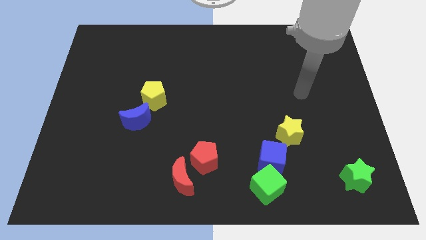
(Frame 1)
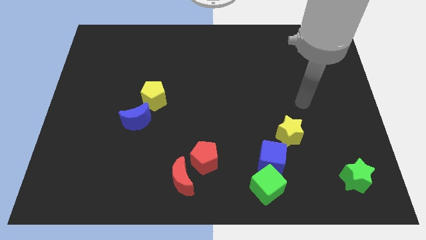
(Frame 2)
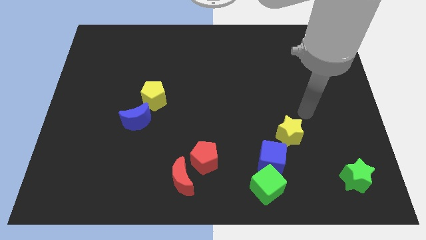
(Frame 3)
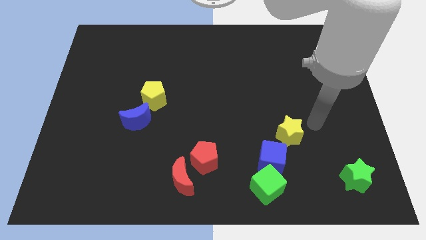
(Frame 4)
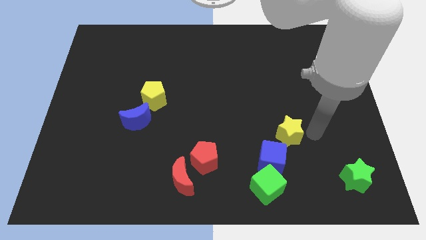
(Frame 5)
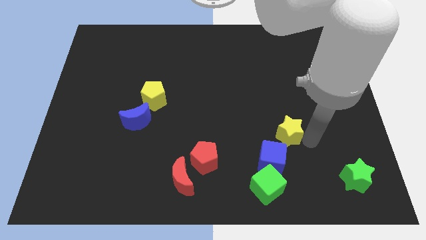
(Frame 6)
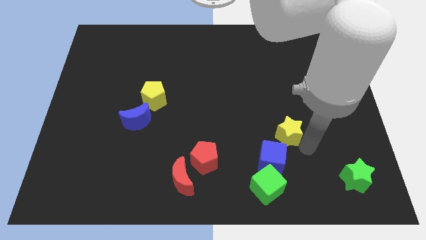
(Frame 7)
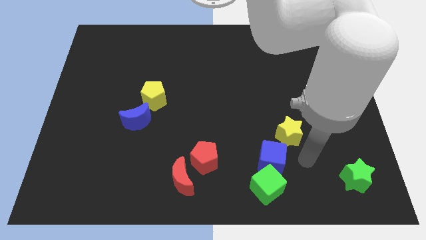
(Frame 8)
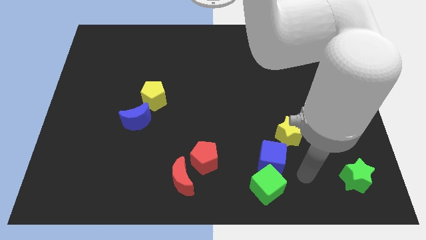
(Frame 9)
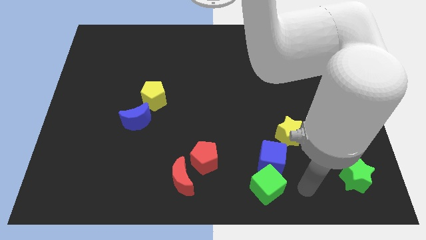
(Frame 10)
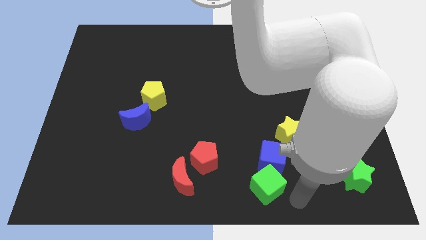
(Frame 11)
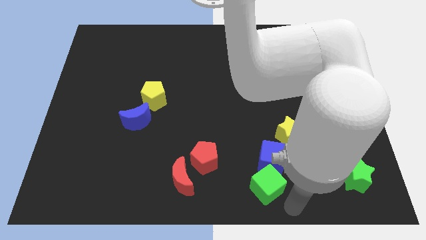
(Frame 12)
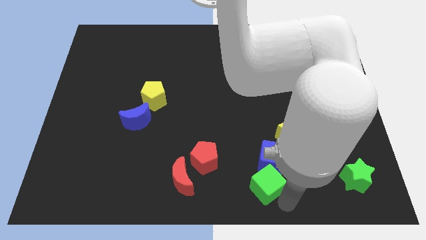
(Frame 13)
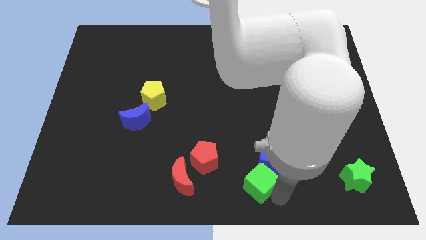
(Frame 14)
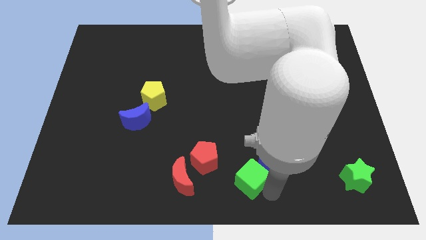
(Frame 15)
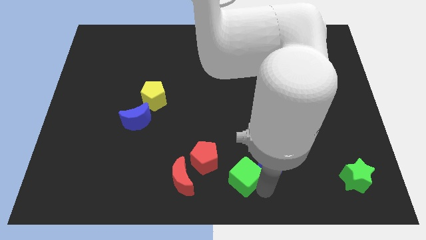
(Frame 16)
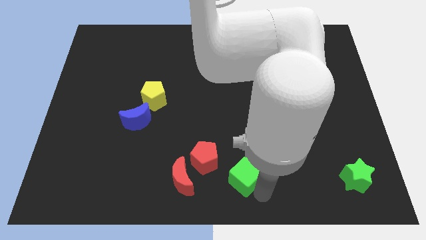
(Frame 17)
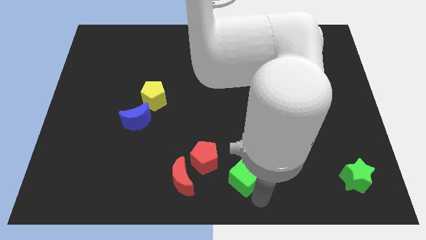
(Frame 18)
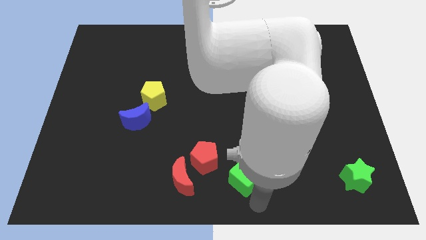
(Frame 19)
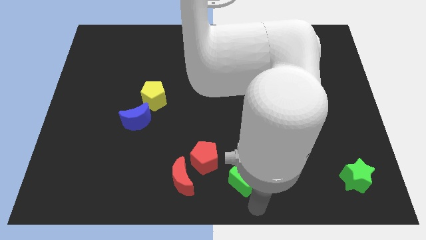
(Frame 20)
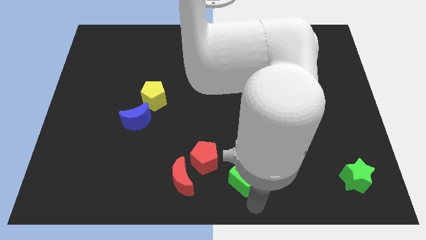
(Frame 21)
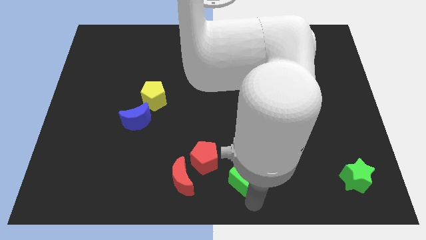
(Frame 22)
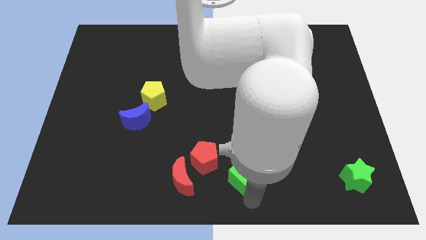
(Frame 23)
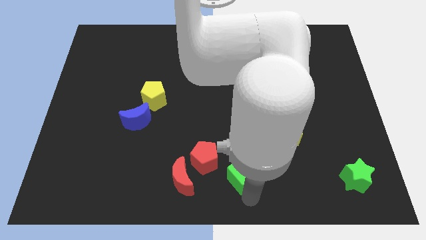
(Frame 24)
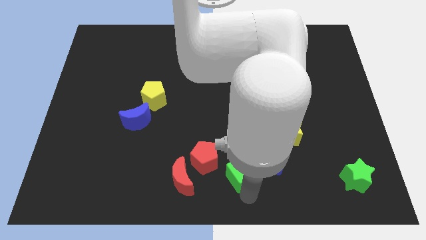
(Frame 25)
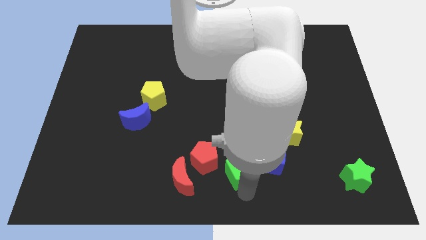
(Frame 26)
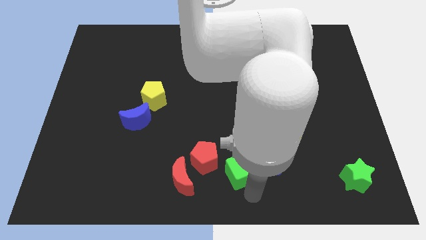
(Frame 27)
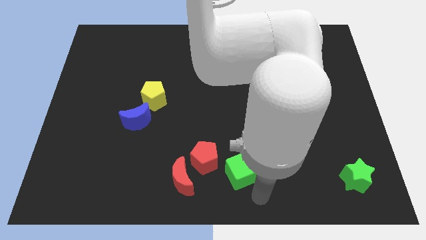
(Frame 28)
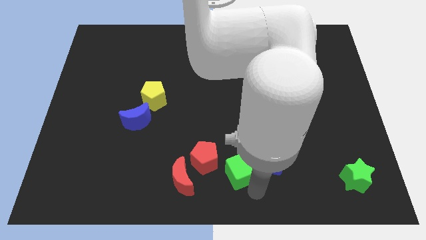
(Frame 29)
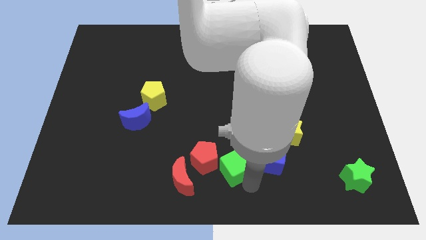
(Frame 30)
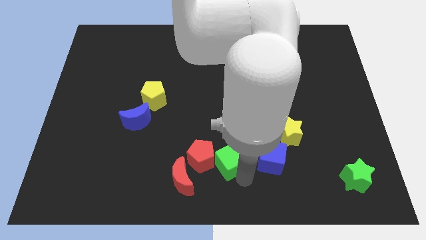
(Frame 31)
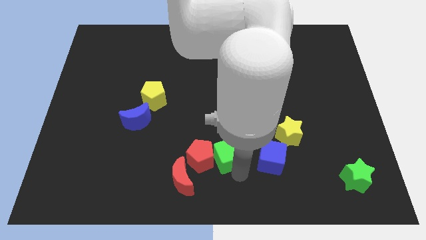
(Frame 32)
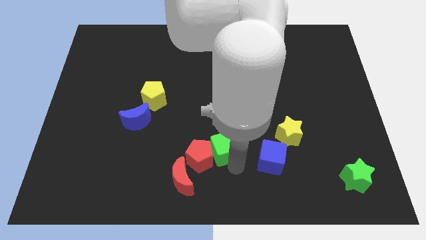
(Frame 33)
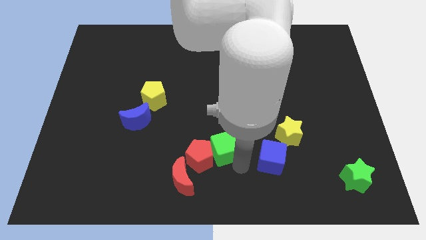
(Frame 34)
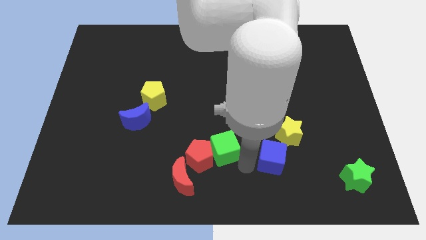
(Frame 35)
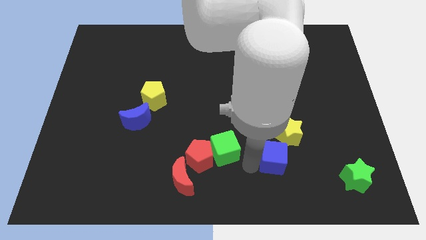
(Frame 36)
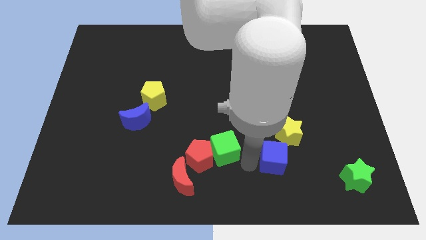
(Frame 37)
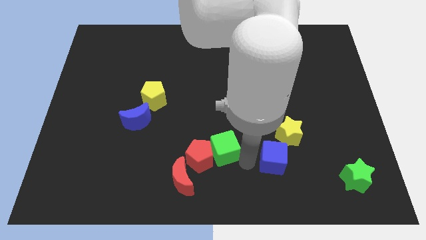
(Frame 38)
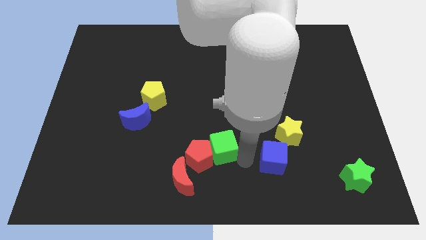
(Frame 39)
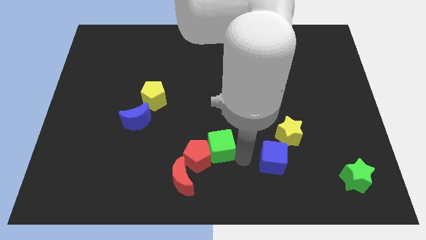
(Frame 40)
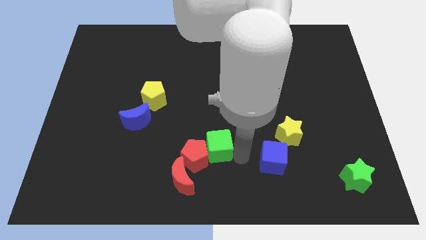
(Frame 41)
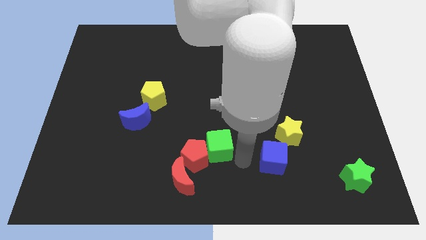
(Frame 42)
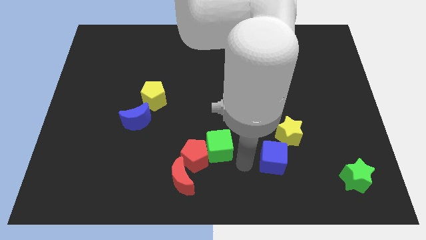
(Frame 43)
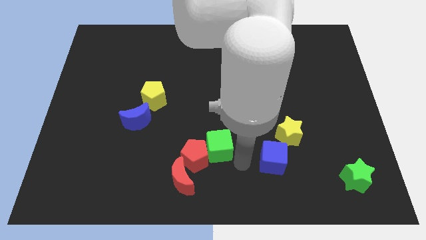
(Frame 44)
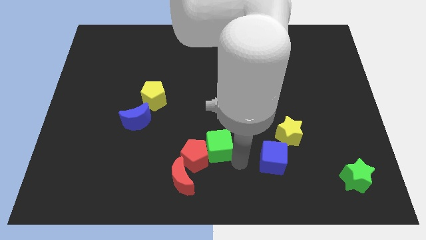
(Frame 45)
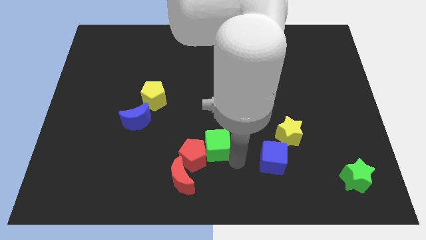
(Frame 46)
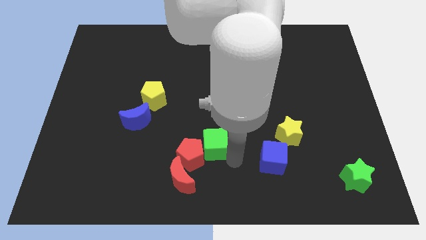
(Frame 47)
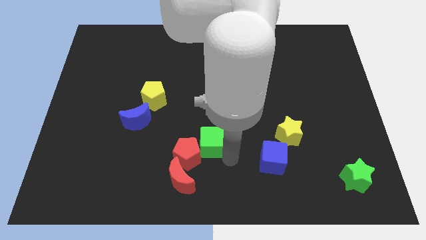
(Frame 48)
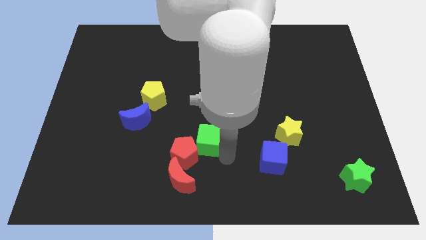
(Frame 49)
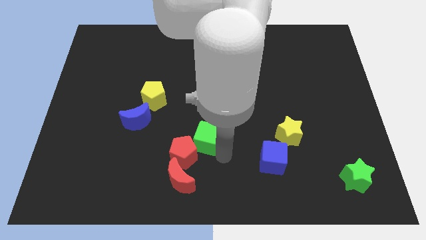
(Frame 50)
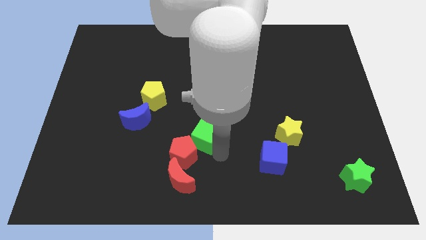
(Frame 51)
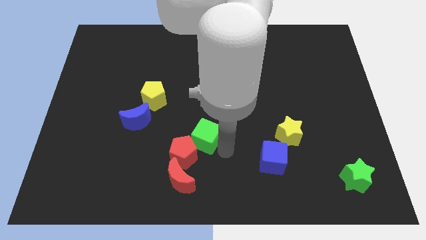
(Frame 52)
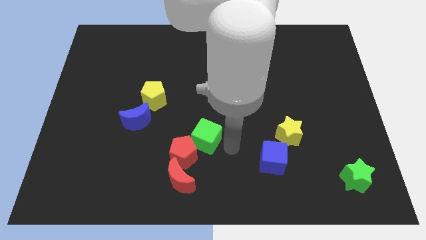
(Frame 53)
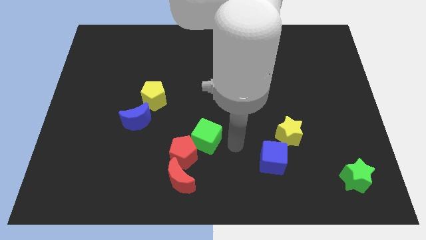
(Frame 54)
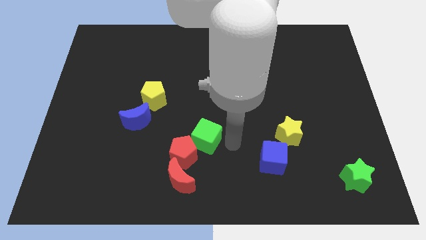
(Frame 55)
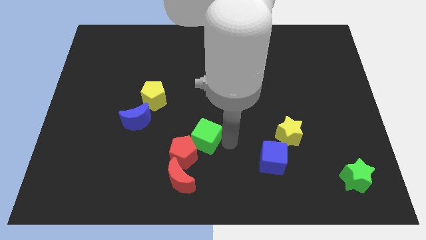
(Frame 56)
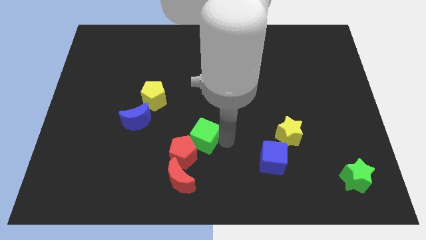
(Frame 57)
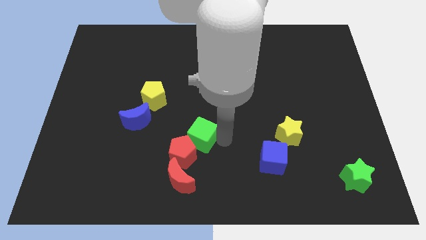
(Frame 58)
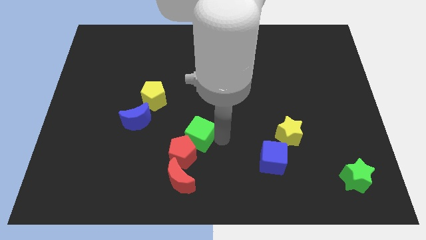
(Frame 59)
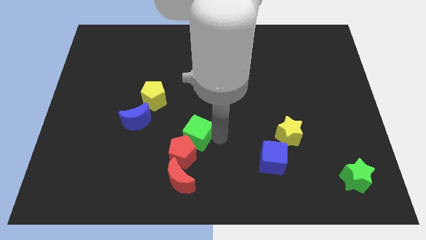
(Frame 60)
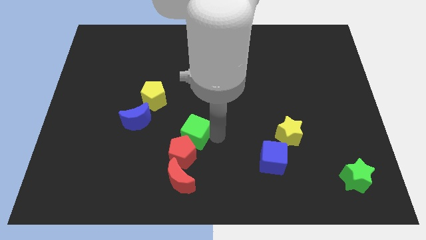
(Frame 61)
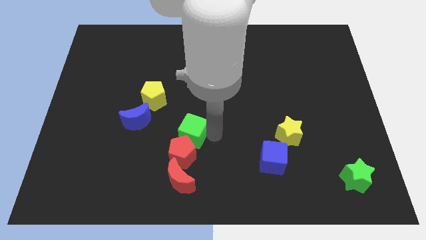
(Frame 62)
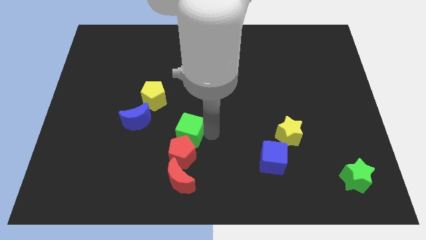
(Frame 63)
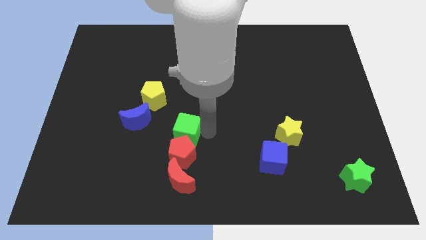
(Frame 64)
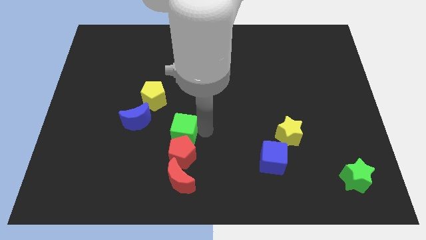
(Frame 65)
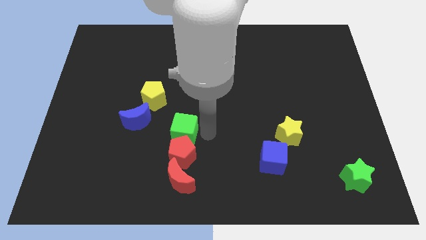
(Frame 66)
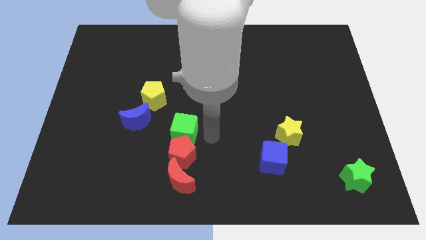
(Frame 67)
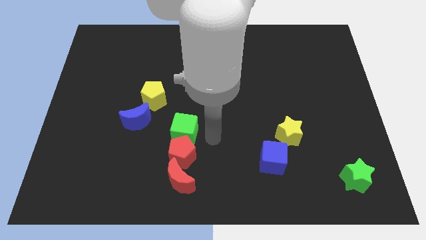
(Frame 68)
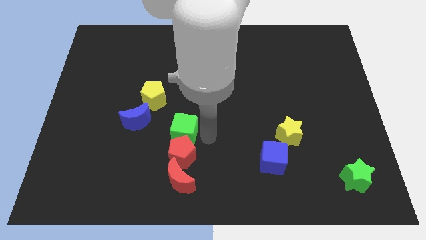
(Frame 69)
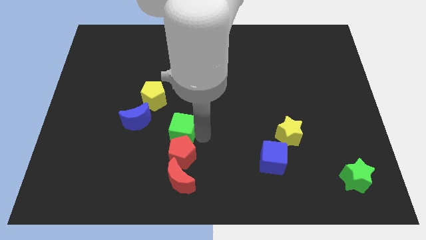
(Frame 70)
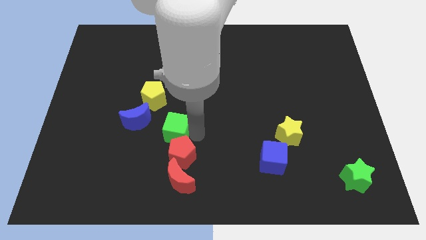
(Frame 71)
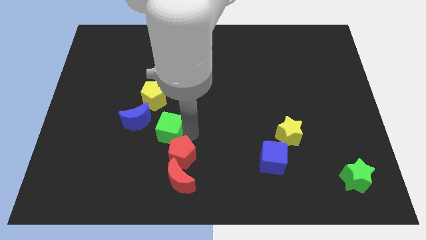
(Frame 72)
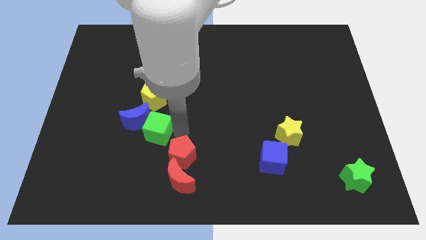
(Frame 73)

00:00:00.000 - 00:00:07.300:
move the green cube next to the blue moon

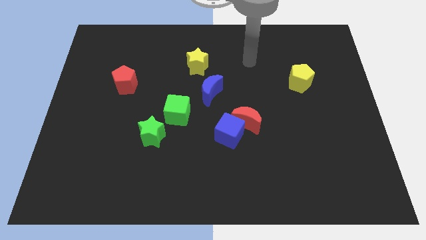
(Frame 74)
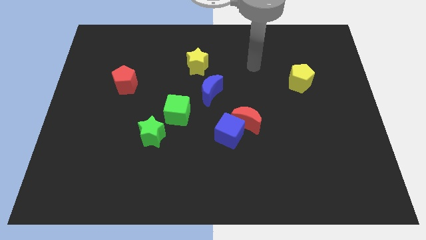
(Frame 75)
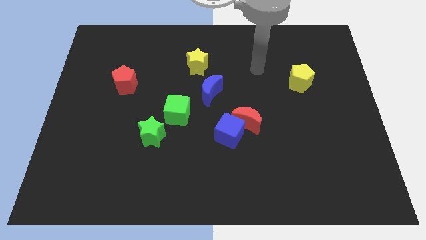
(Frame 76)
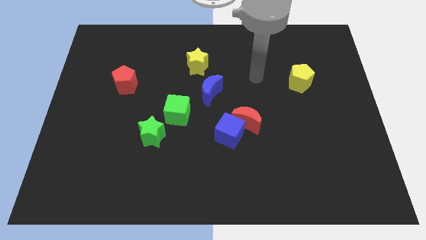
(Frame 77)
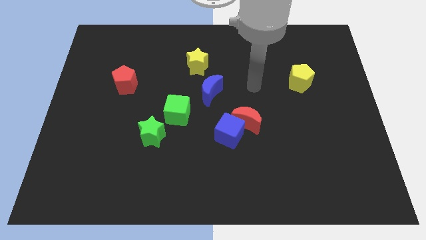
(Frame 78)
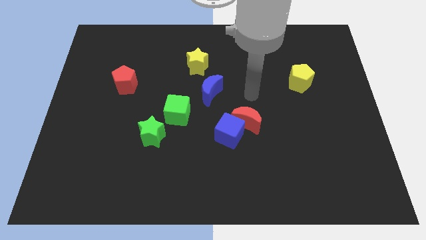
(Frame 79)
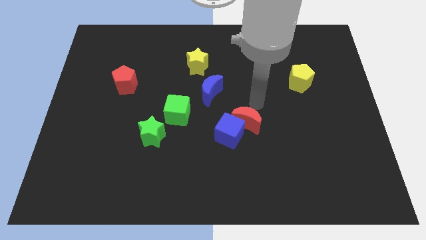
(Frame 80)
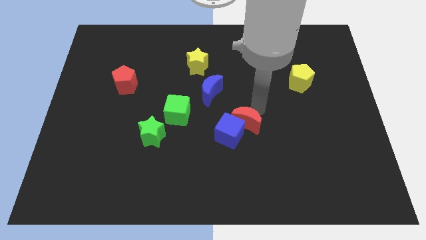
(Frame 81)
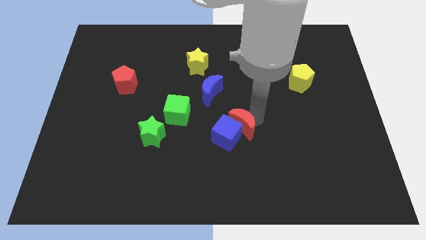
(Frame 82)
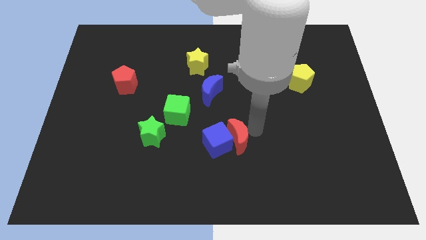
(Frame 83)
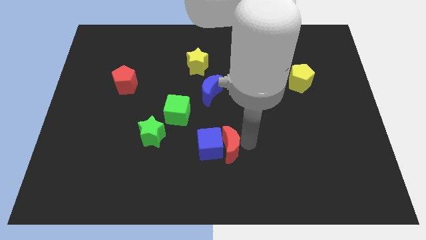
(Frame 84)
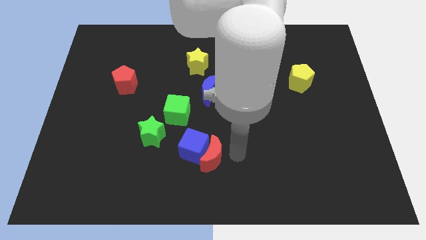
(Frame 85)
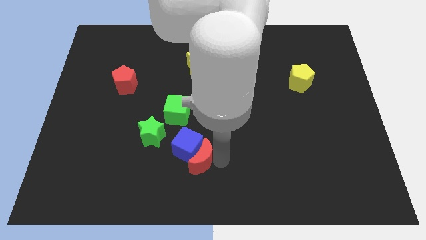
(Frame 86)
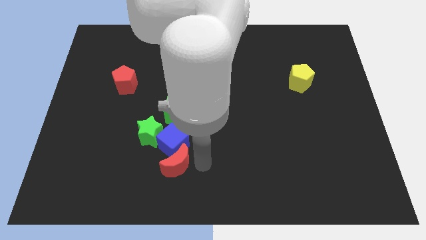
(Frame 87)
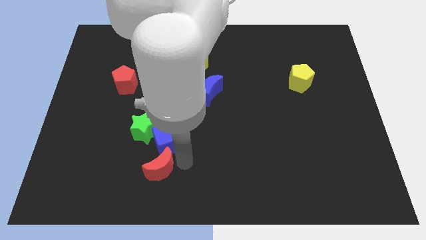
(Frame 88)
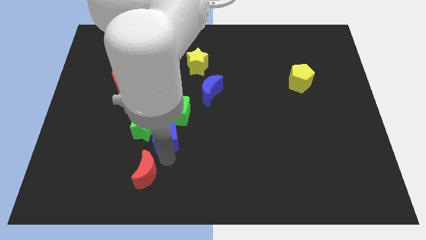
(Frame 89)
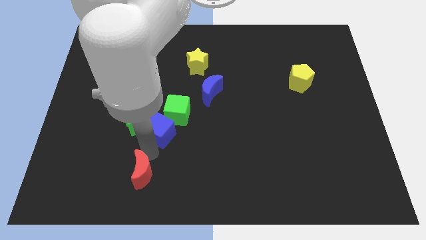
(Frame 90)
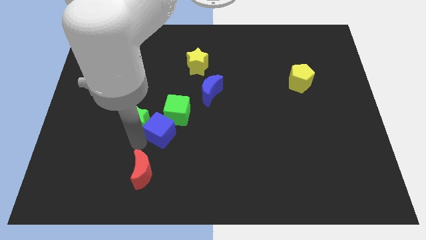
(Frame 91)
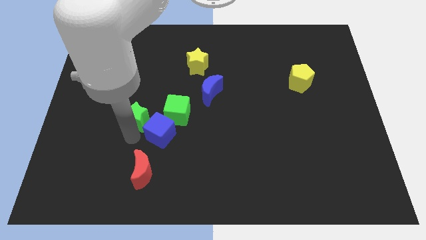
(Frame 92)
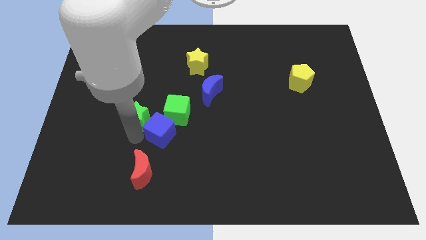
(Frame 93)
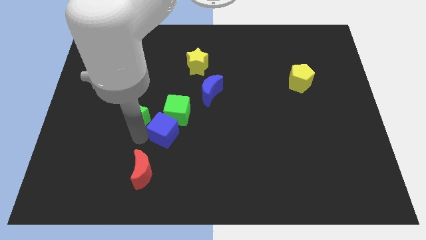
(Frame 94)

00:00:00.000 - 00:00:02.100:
move the blue cube next to the green cube
